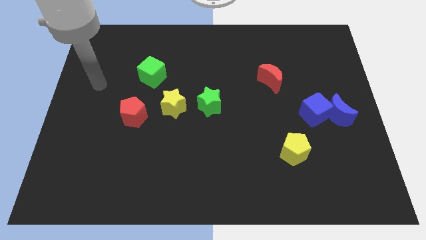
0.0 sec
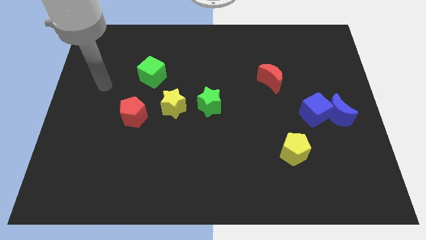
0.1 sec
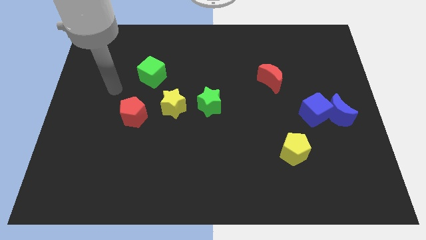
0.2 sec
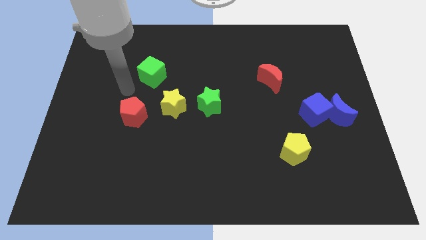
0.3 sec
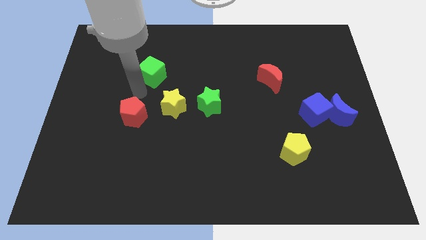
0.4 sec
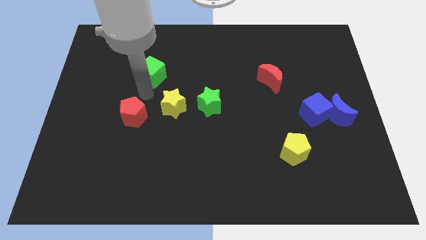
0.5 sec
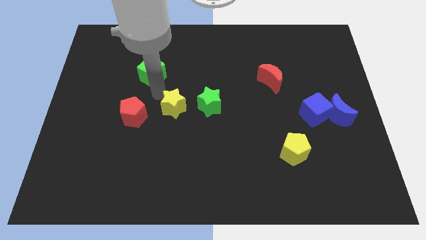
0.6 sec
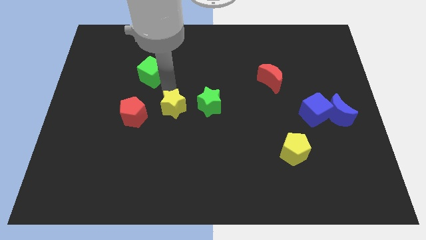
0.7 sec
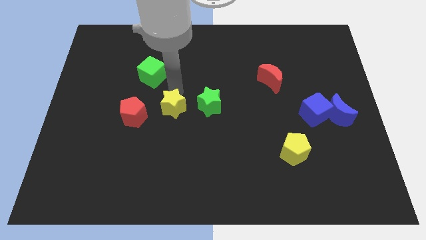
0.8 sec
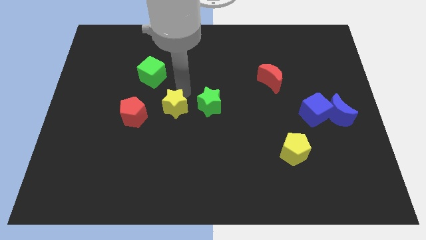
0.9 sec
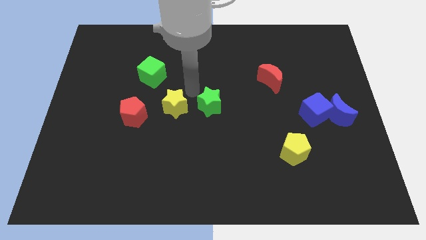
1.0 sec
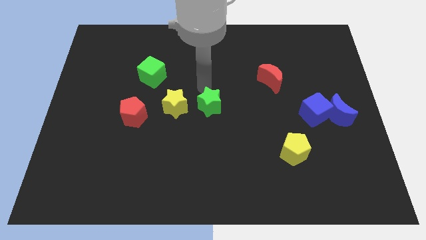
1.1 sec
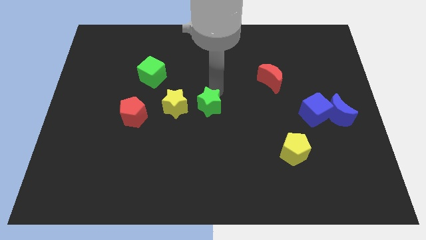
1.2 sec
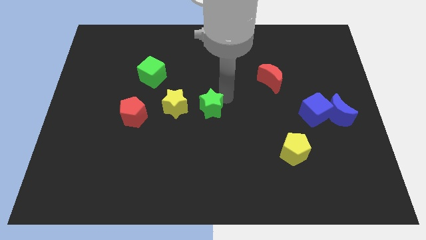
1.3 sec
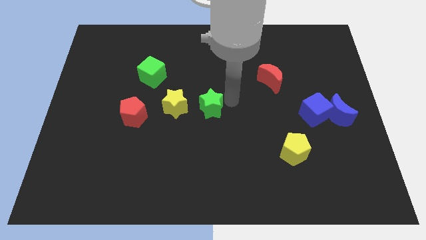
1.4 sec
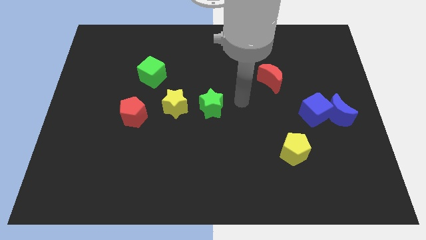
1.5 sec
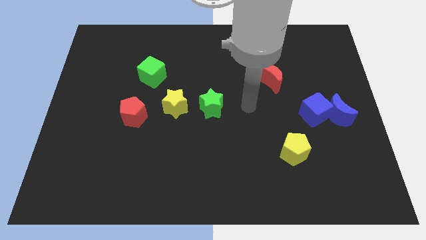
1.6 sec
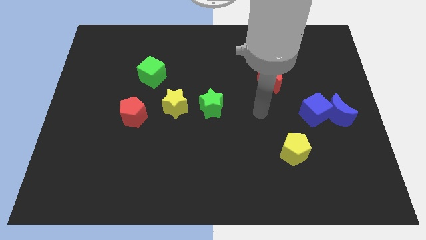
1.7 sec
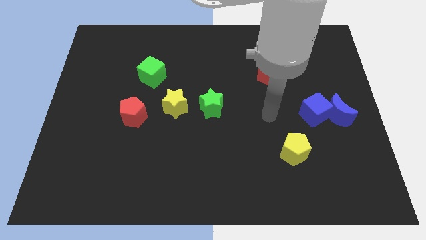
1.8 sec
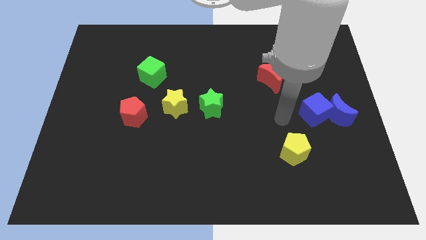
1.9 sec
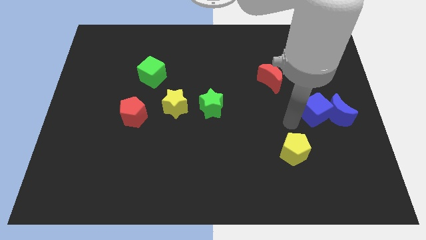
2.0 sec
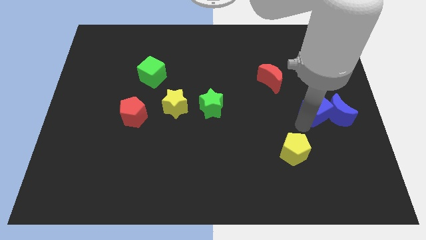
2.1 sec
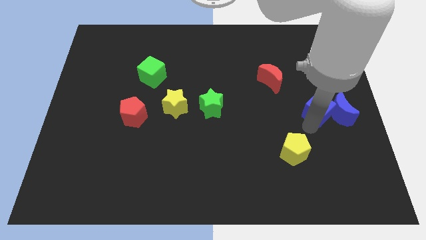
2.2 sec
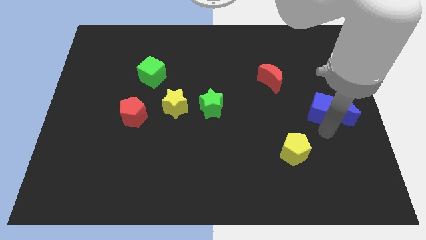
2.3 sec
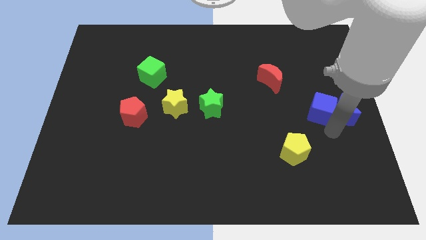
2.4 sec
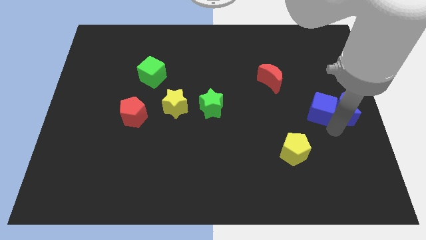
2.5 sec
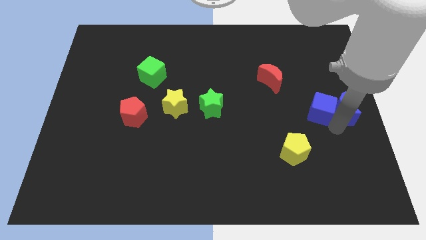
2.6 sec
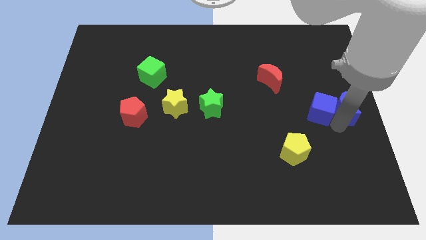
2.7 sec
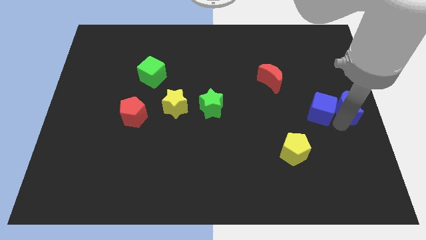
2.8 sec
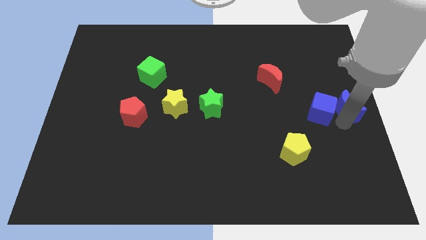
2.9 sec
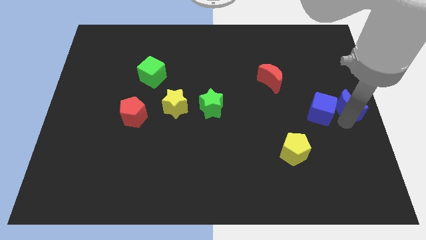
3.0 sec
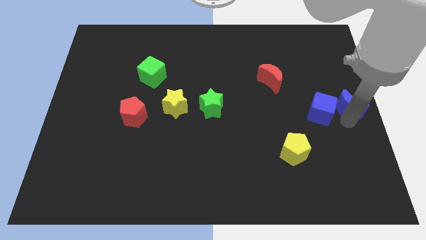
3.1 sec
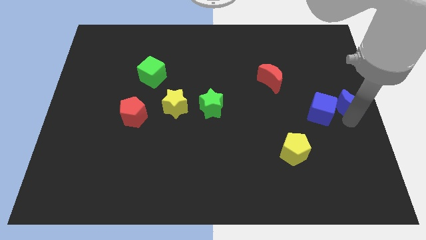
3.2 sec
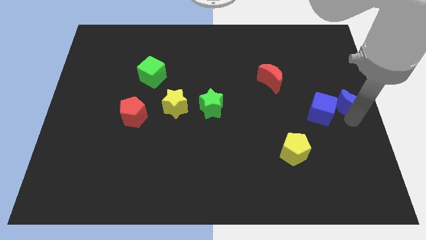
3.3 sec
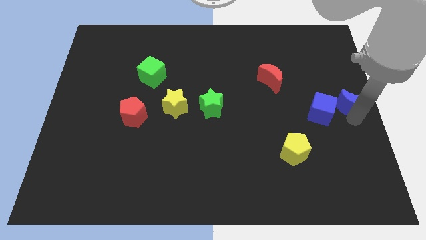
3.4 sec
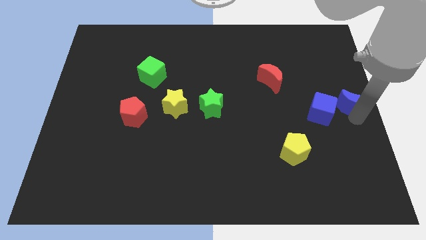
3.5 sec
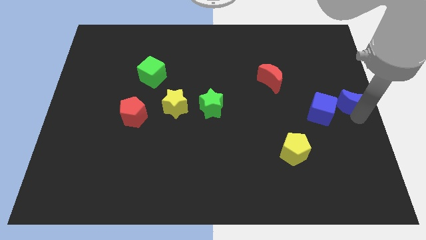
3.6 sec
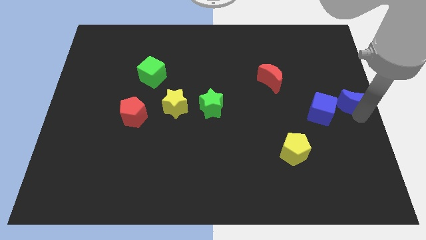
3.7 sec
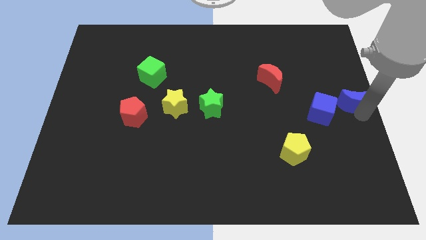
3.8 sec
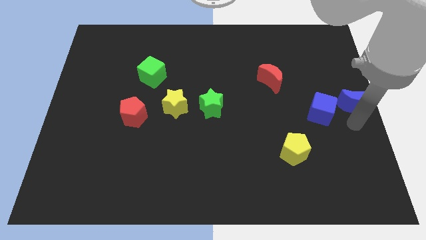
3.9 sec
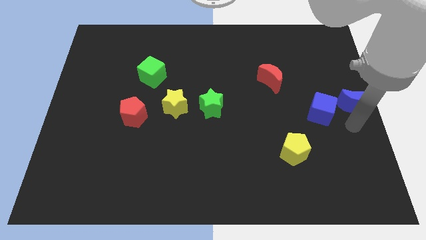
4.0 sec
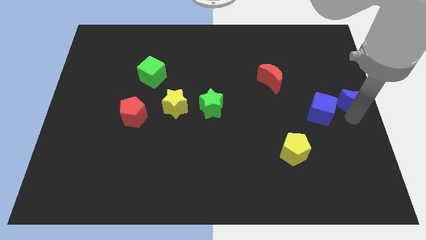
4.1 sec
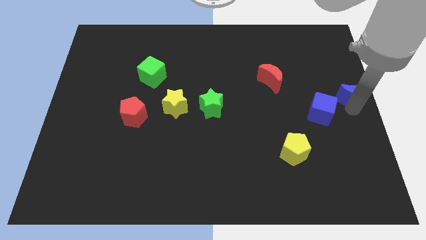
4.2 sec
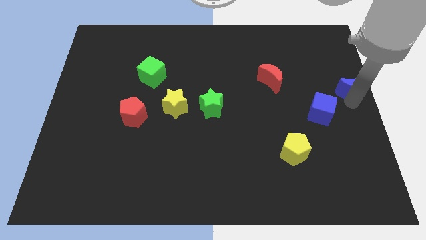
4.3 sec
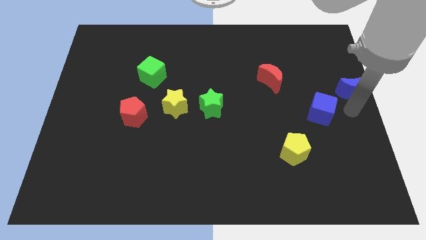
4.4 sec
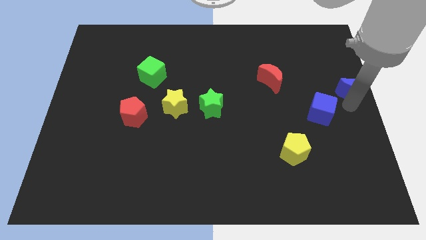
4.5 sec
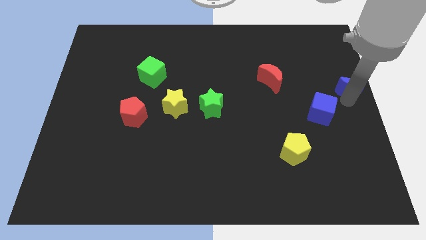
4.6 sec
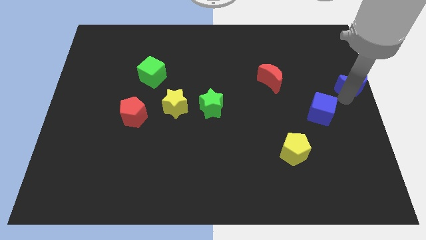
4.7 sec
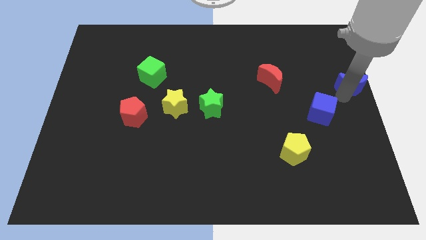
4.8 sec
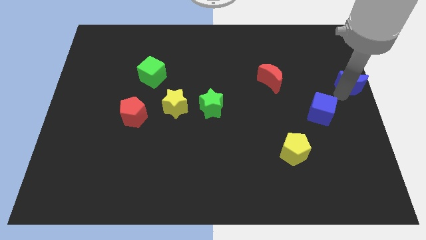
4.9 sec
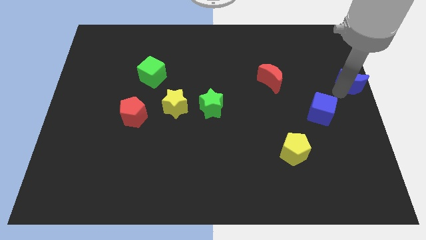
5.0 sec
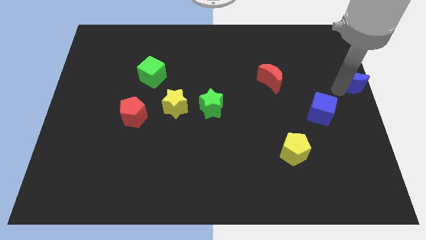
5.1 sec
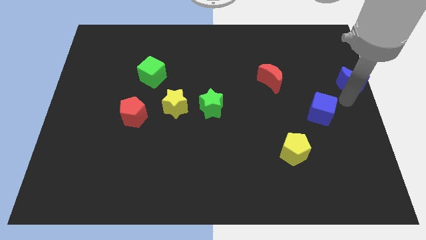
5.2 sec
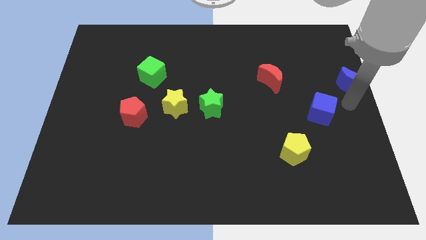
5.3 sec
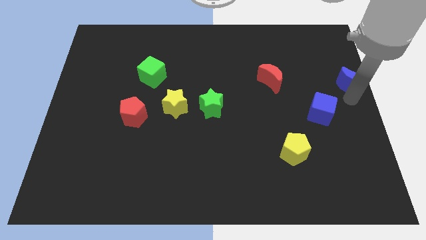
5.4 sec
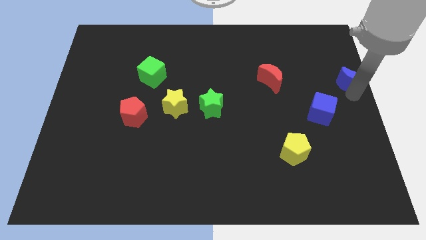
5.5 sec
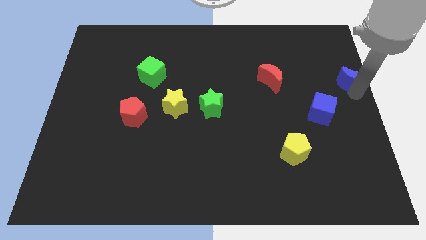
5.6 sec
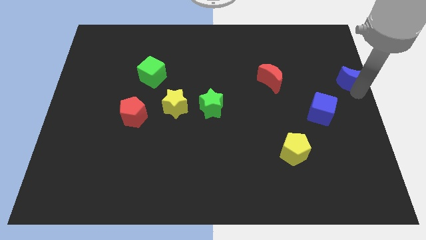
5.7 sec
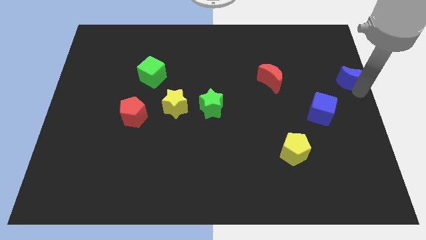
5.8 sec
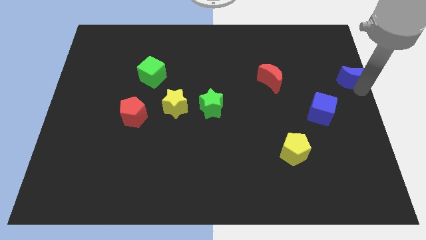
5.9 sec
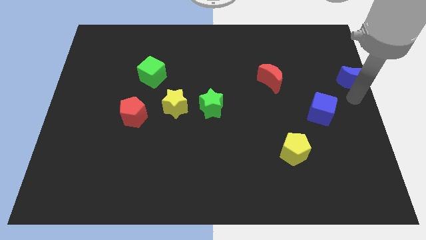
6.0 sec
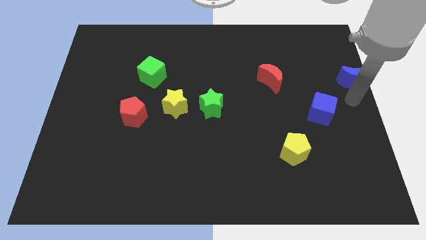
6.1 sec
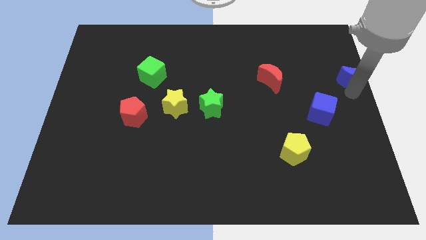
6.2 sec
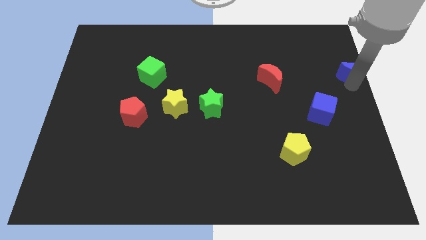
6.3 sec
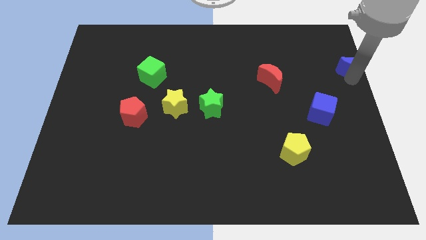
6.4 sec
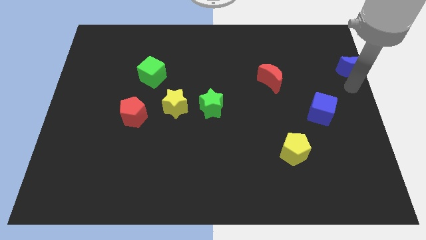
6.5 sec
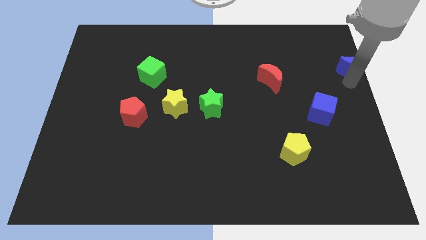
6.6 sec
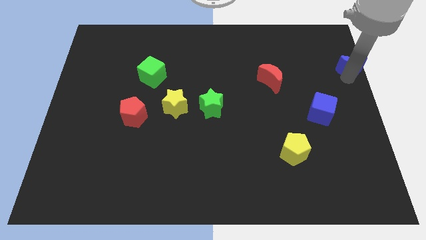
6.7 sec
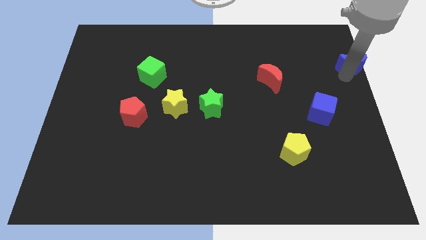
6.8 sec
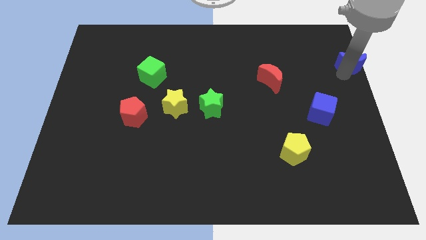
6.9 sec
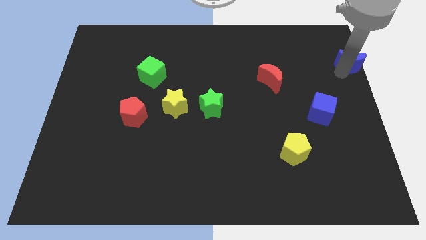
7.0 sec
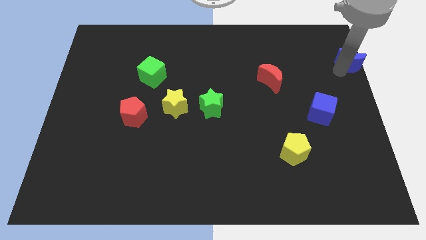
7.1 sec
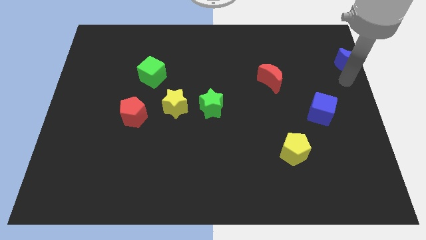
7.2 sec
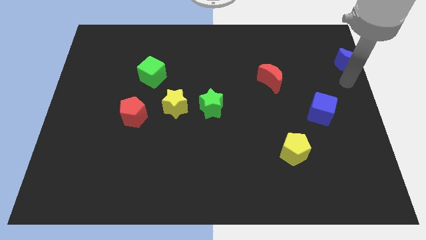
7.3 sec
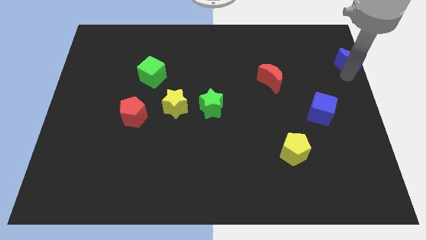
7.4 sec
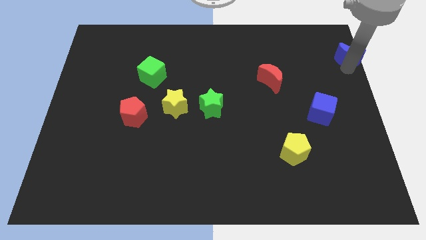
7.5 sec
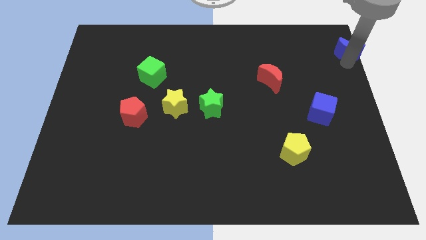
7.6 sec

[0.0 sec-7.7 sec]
push the blue moon to the top right
